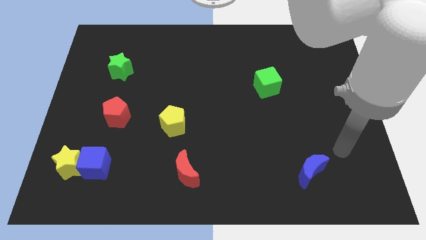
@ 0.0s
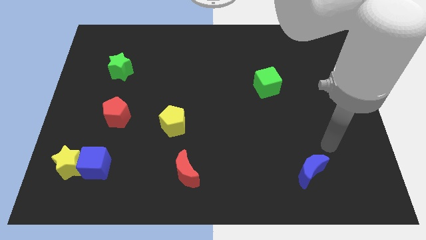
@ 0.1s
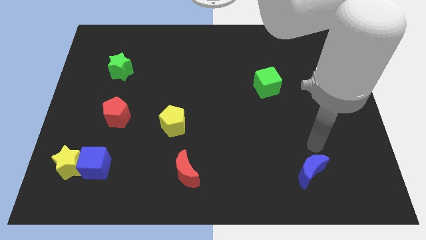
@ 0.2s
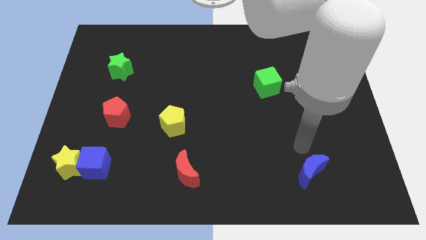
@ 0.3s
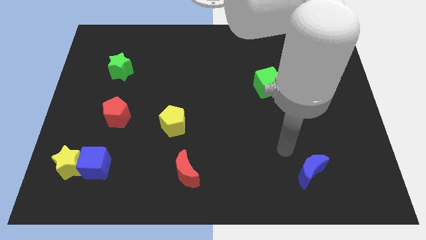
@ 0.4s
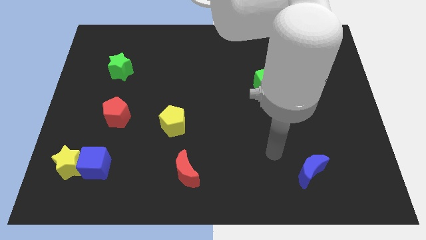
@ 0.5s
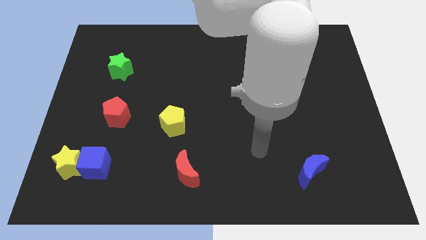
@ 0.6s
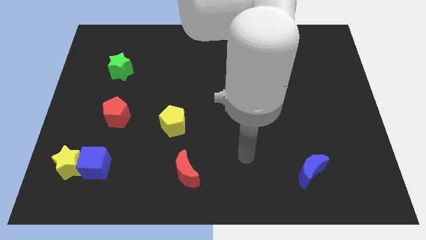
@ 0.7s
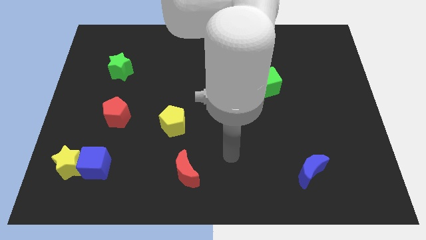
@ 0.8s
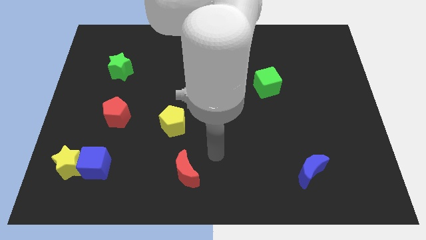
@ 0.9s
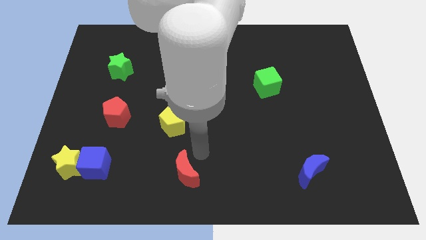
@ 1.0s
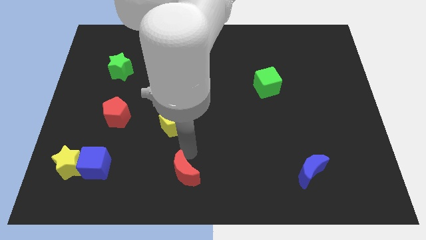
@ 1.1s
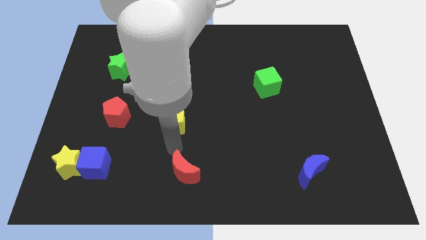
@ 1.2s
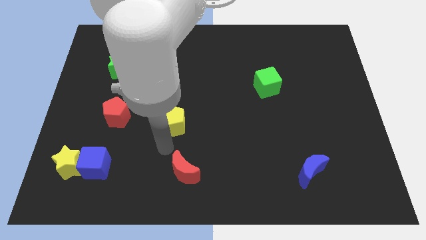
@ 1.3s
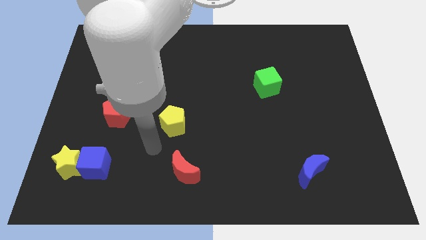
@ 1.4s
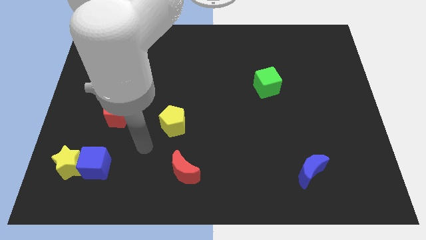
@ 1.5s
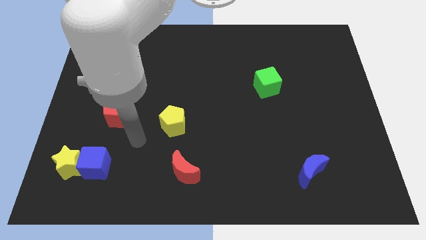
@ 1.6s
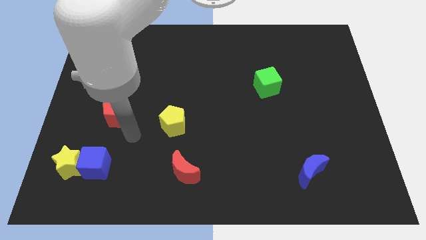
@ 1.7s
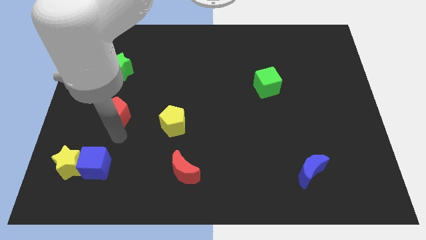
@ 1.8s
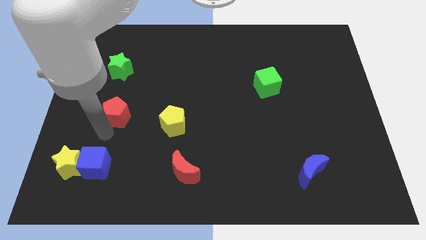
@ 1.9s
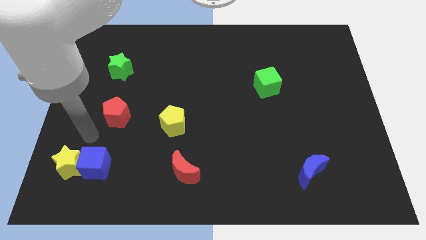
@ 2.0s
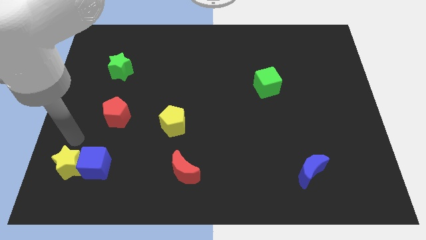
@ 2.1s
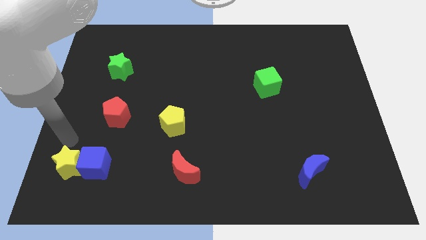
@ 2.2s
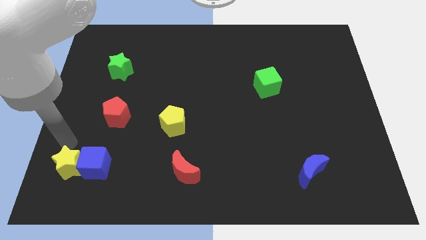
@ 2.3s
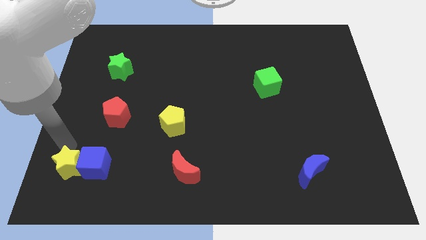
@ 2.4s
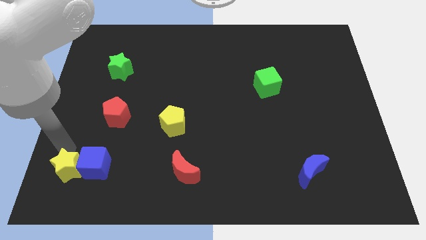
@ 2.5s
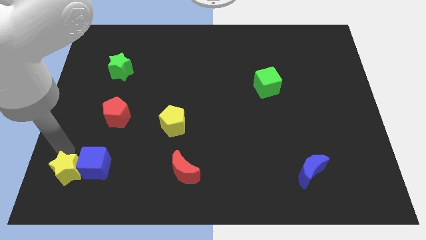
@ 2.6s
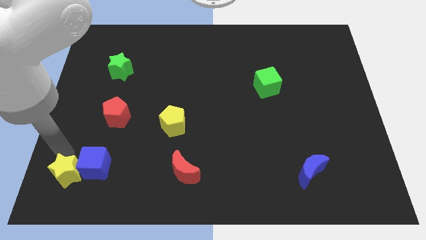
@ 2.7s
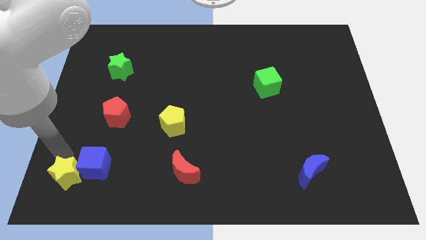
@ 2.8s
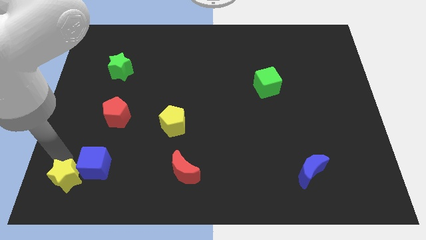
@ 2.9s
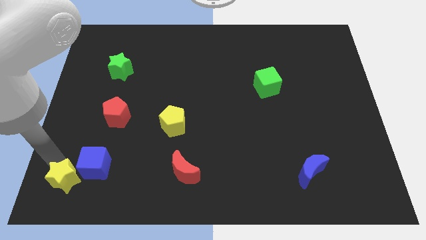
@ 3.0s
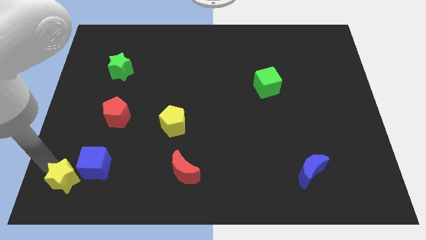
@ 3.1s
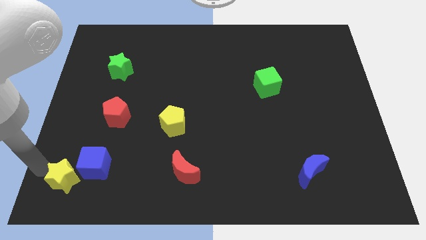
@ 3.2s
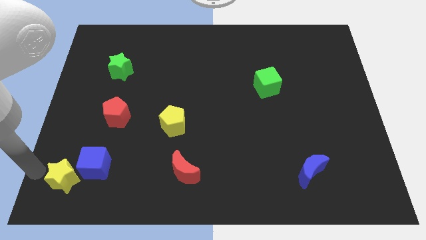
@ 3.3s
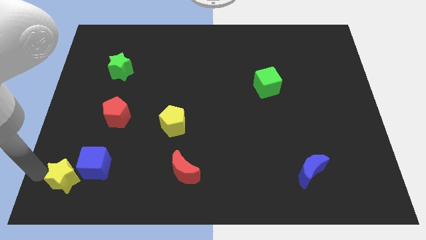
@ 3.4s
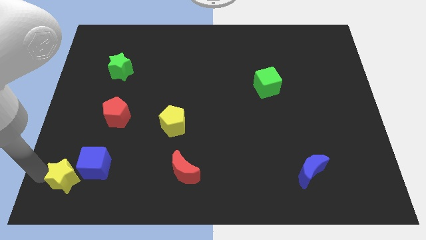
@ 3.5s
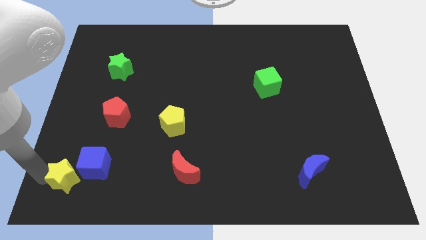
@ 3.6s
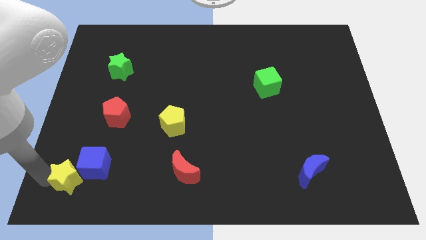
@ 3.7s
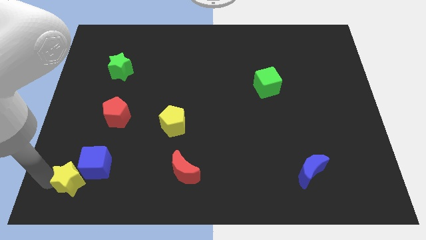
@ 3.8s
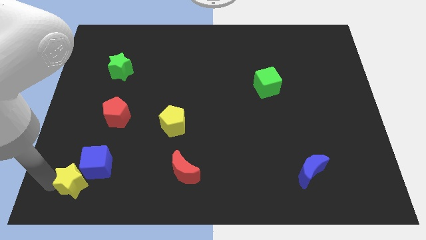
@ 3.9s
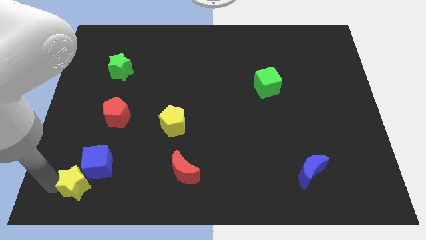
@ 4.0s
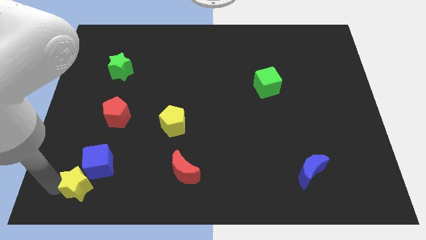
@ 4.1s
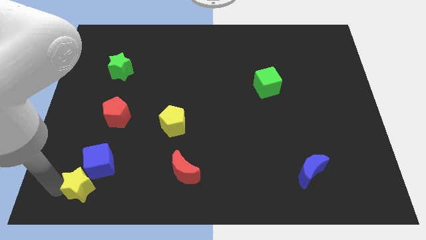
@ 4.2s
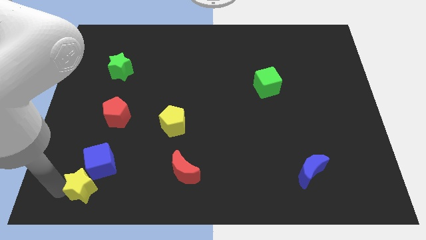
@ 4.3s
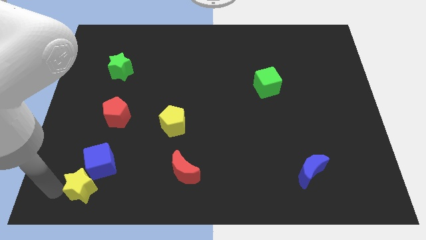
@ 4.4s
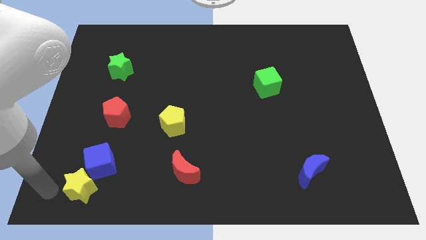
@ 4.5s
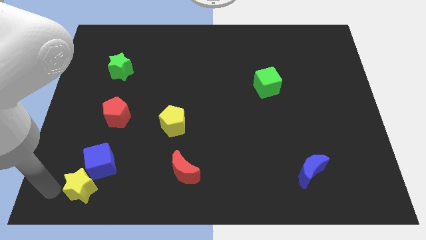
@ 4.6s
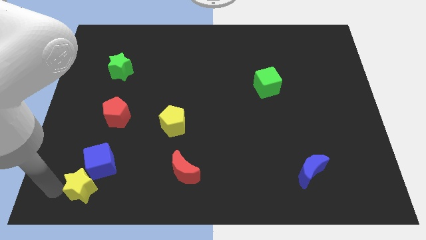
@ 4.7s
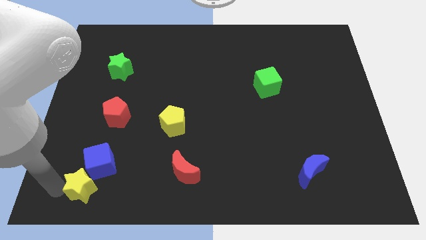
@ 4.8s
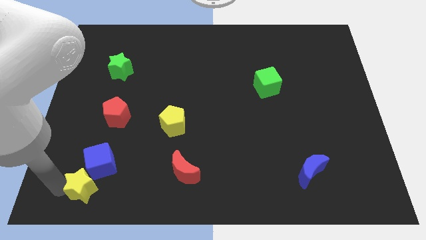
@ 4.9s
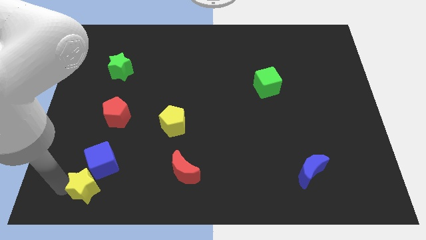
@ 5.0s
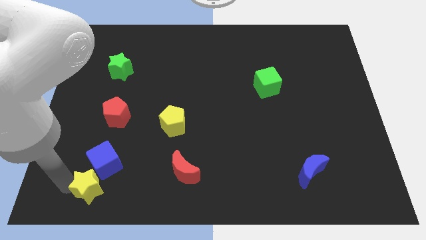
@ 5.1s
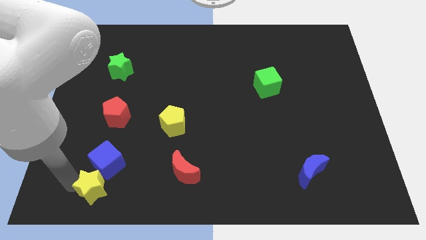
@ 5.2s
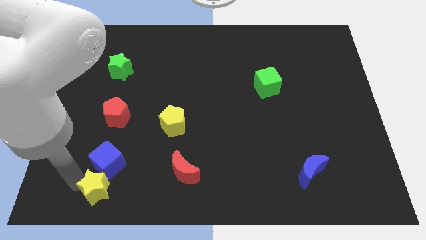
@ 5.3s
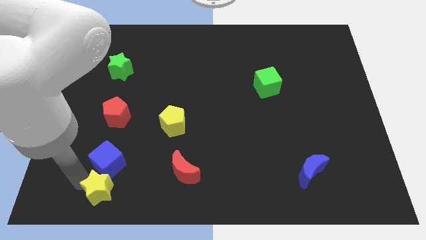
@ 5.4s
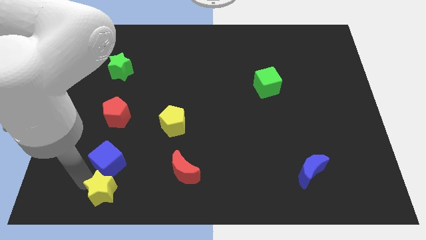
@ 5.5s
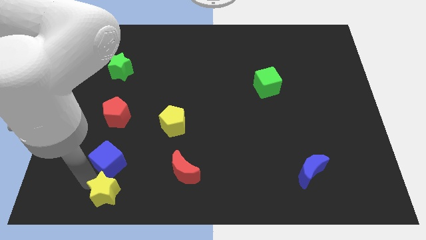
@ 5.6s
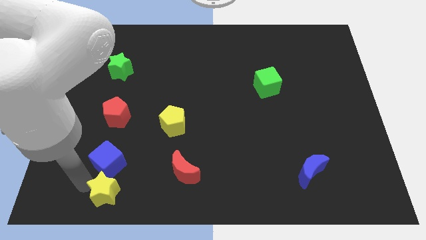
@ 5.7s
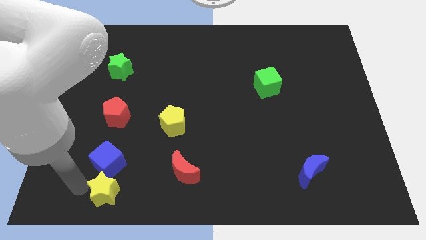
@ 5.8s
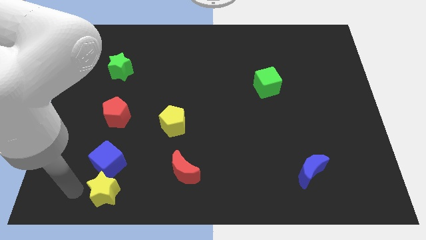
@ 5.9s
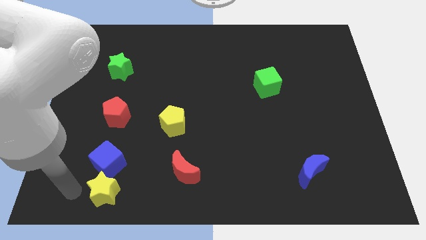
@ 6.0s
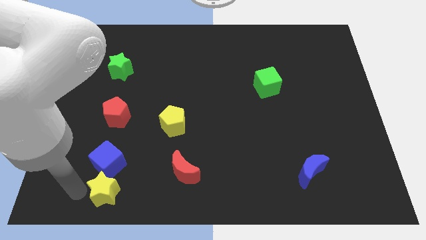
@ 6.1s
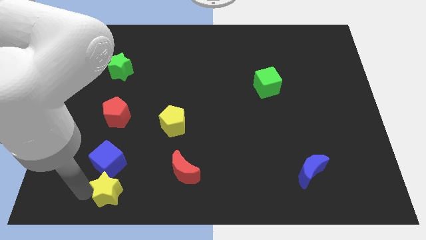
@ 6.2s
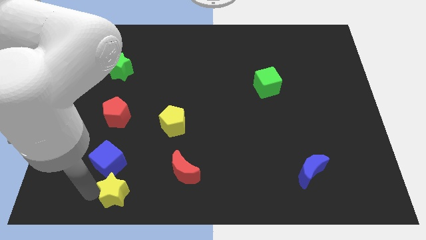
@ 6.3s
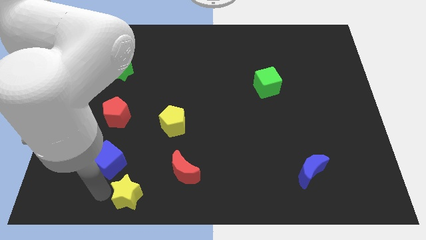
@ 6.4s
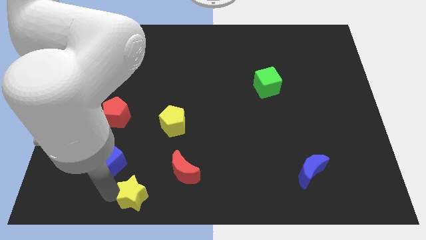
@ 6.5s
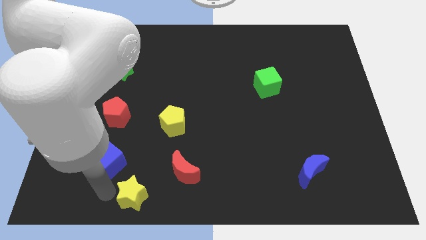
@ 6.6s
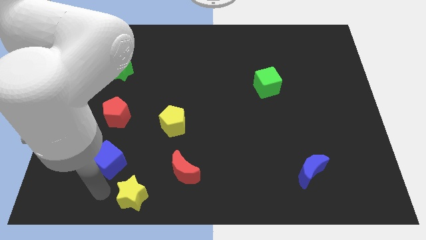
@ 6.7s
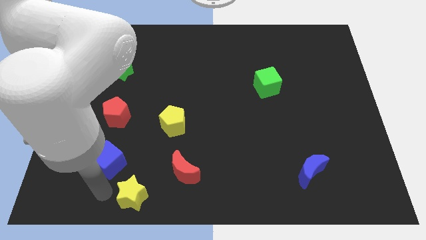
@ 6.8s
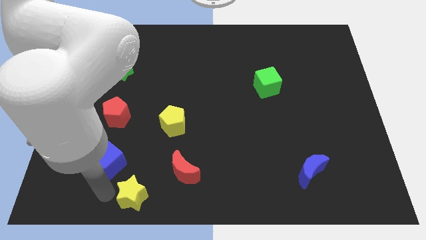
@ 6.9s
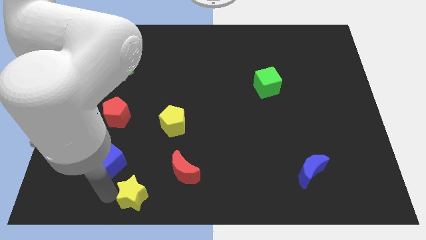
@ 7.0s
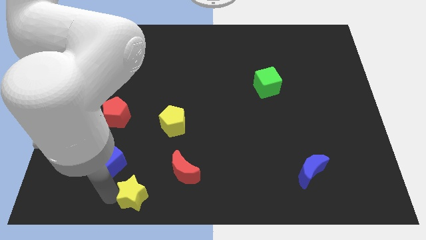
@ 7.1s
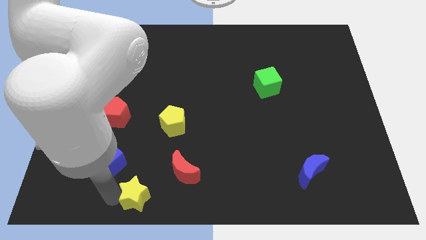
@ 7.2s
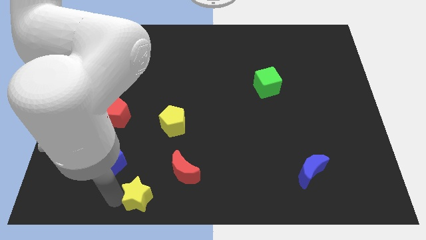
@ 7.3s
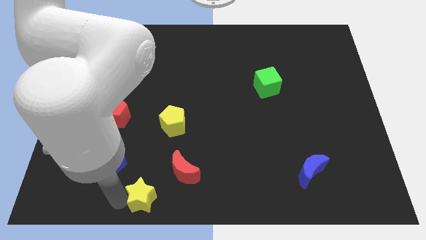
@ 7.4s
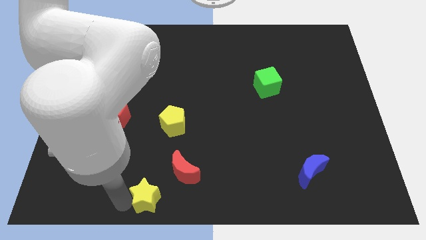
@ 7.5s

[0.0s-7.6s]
push the yellow star to the bottom side
